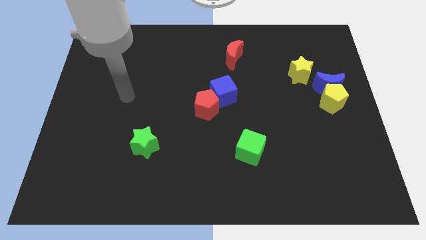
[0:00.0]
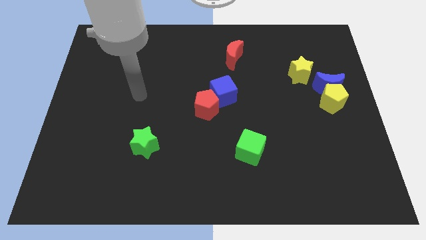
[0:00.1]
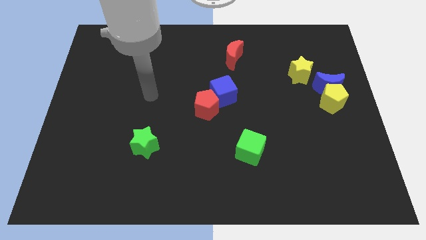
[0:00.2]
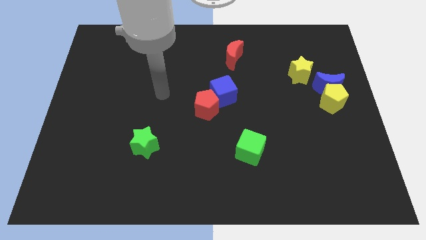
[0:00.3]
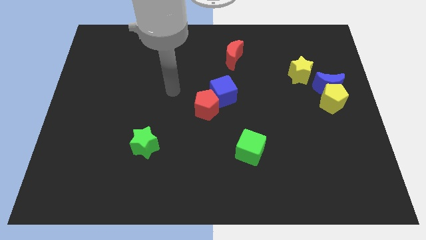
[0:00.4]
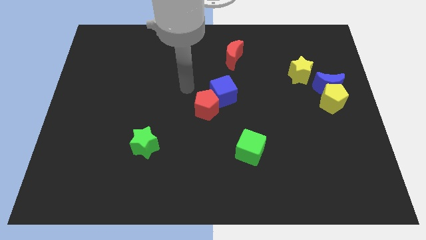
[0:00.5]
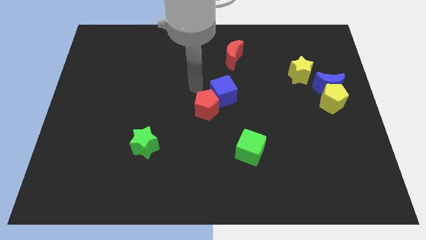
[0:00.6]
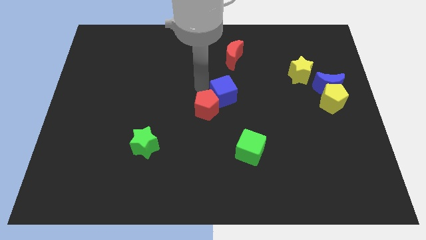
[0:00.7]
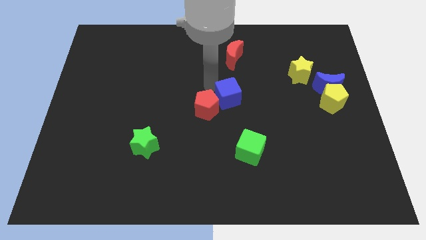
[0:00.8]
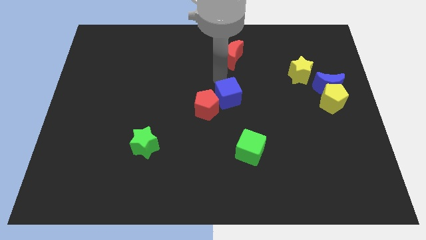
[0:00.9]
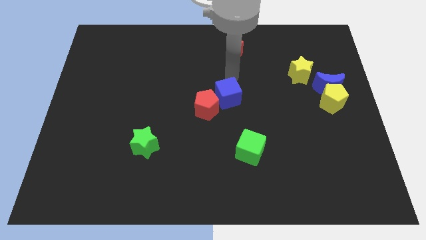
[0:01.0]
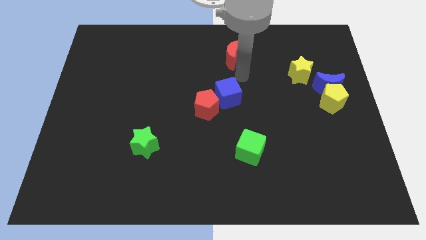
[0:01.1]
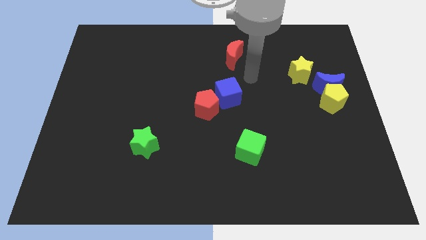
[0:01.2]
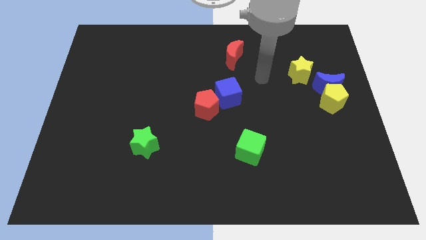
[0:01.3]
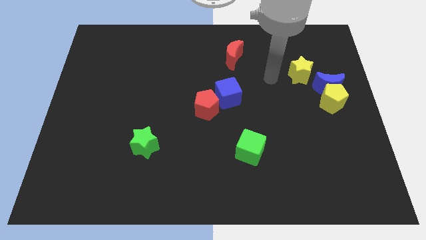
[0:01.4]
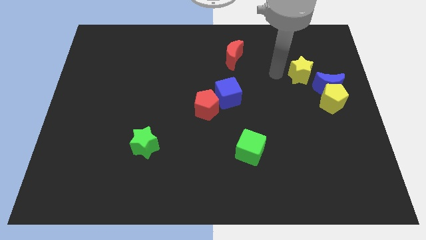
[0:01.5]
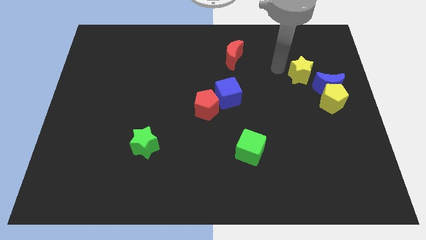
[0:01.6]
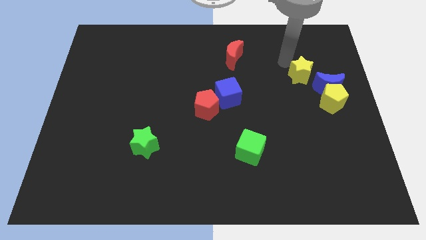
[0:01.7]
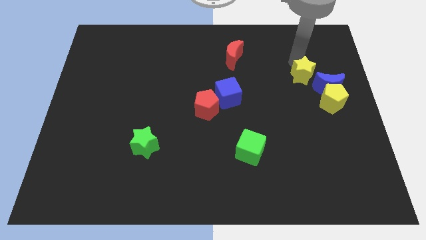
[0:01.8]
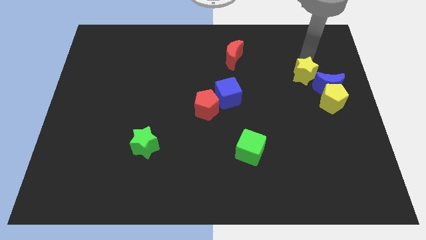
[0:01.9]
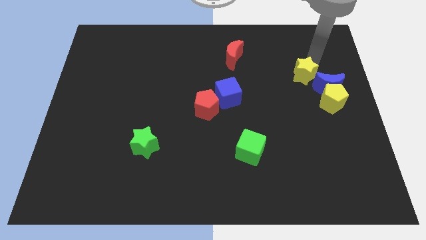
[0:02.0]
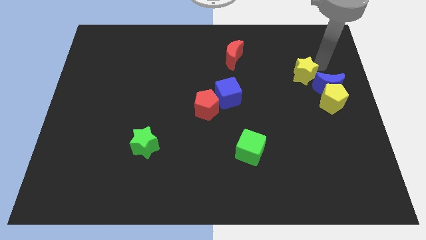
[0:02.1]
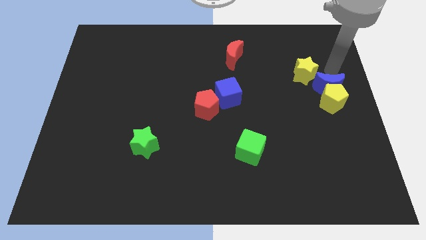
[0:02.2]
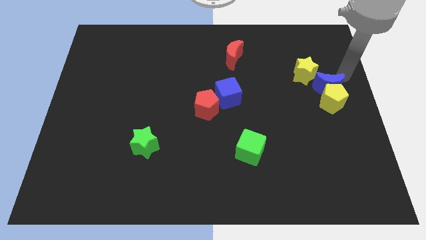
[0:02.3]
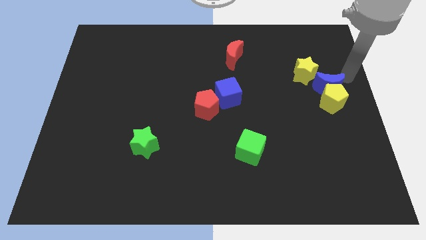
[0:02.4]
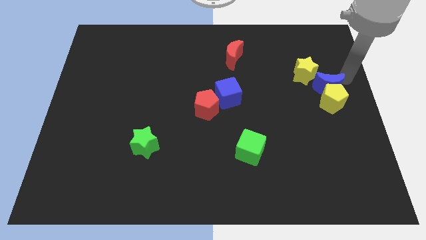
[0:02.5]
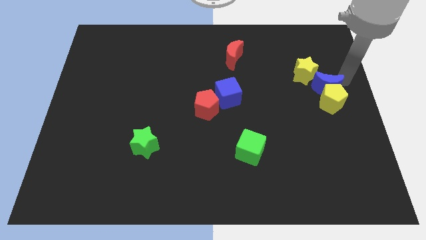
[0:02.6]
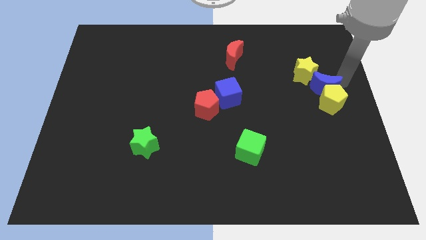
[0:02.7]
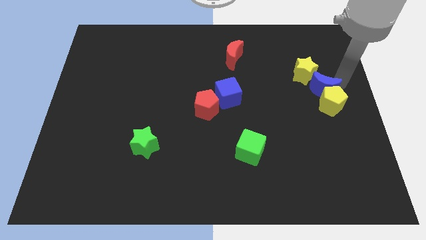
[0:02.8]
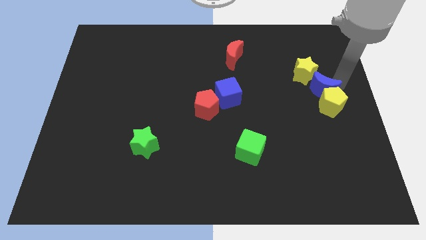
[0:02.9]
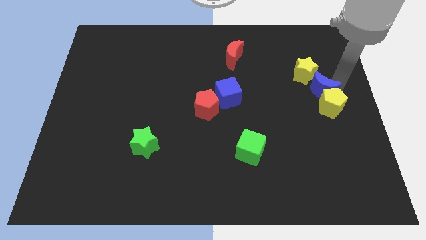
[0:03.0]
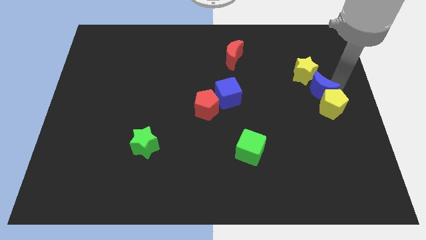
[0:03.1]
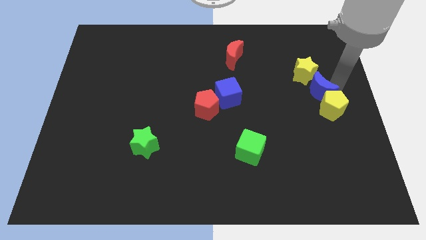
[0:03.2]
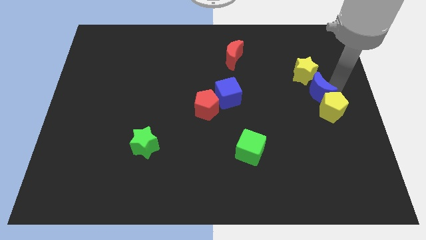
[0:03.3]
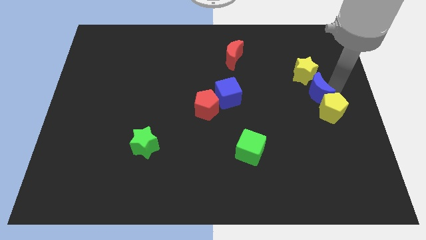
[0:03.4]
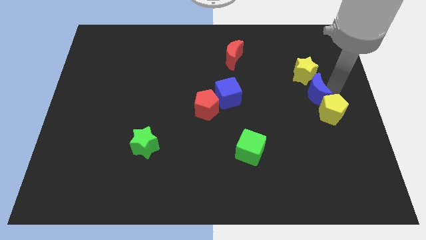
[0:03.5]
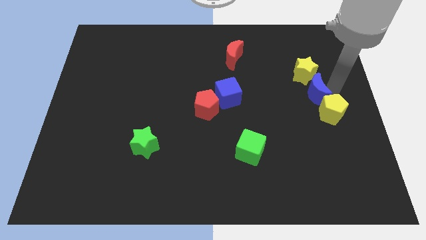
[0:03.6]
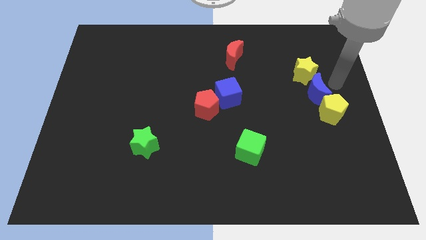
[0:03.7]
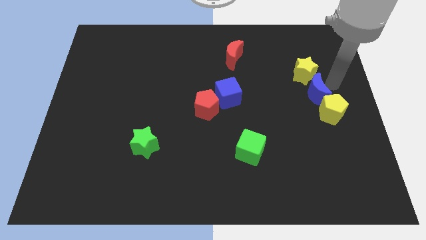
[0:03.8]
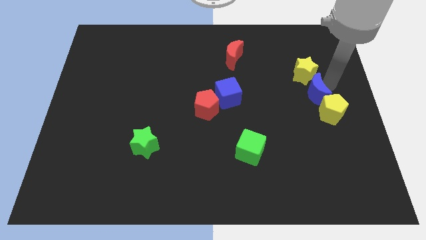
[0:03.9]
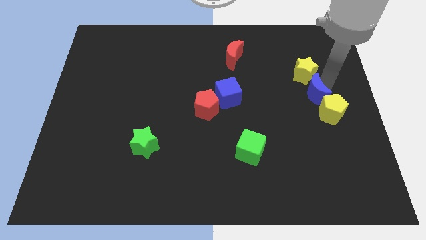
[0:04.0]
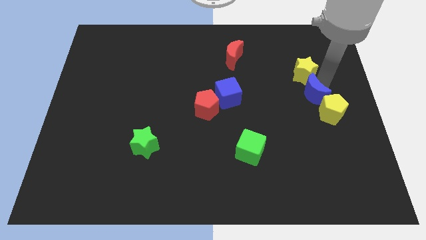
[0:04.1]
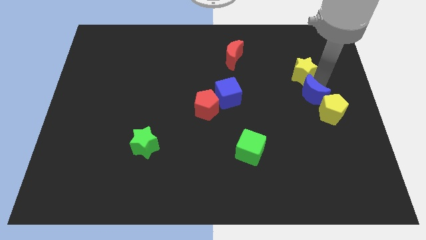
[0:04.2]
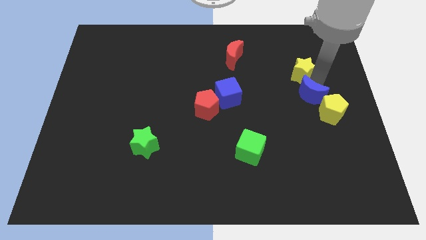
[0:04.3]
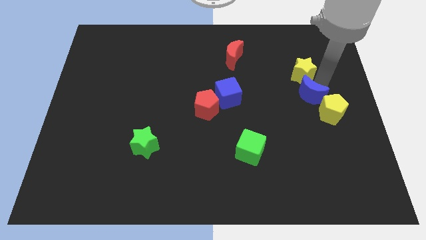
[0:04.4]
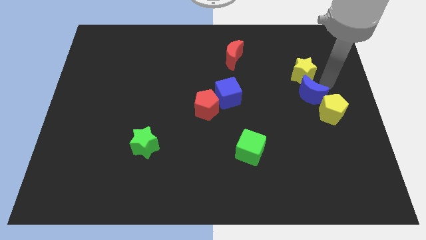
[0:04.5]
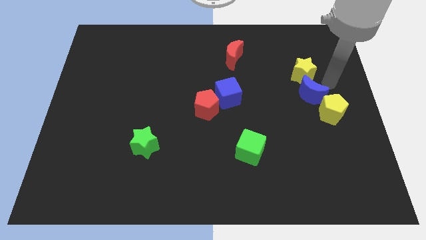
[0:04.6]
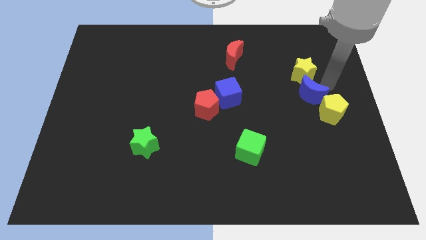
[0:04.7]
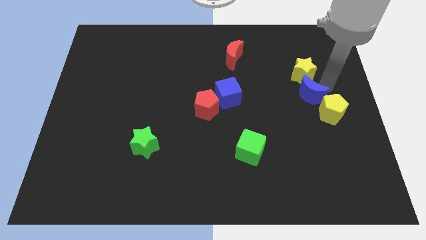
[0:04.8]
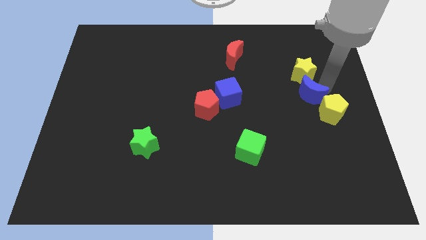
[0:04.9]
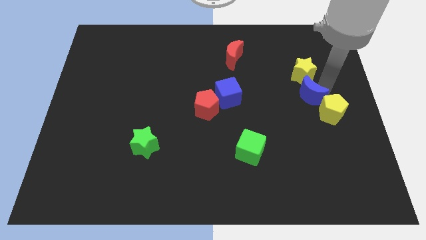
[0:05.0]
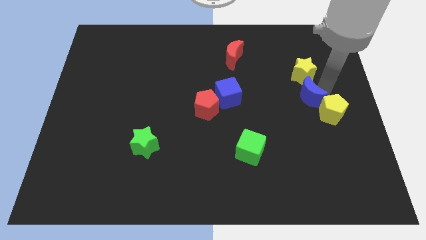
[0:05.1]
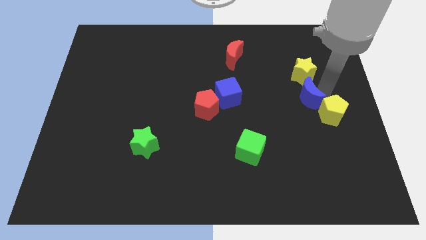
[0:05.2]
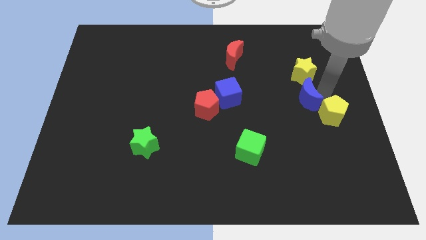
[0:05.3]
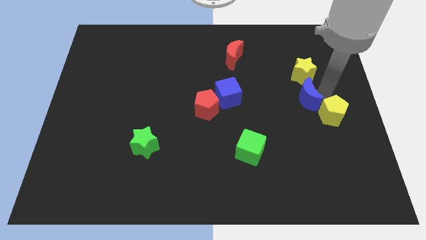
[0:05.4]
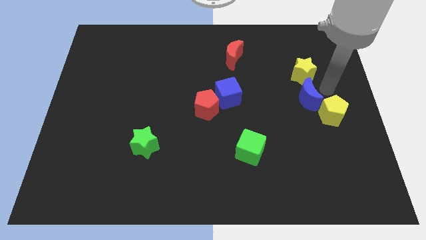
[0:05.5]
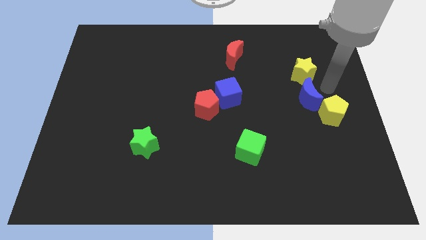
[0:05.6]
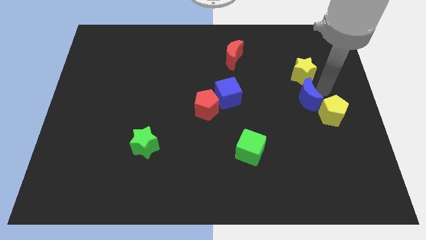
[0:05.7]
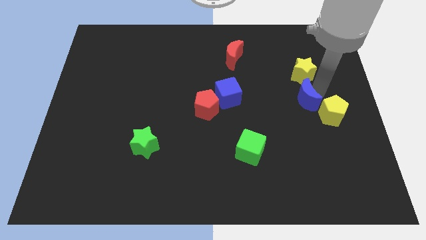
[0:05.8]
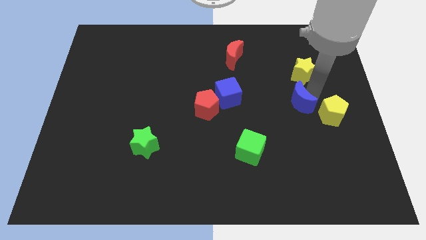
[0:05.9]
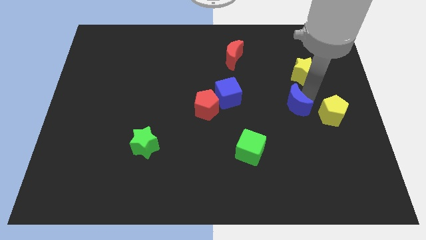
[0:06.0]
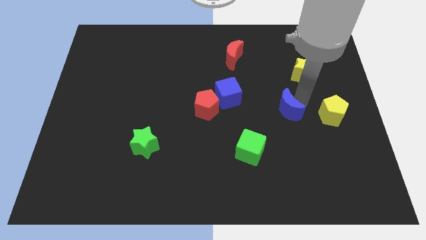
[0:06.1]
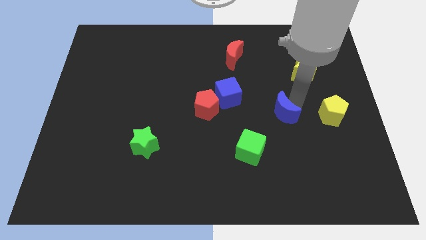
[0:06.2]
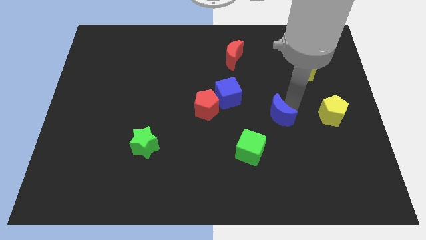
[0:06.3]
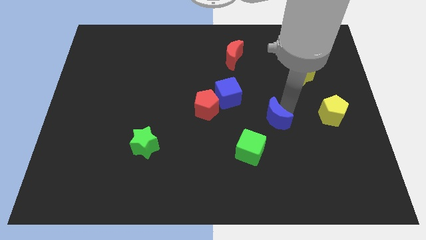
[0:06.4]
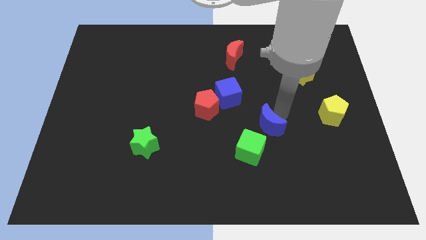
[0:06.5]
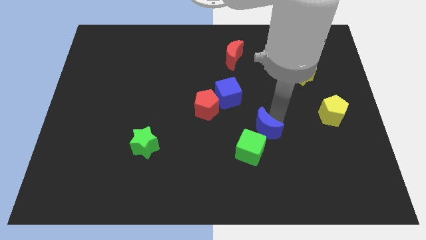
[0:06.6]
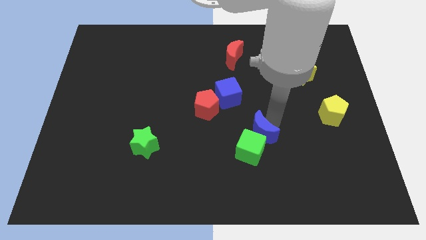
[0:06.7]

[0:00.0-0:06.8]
push the blue moon next to the green cube

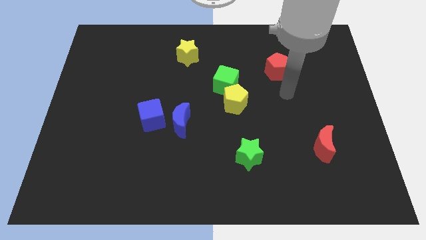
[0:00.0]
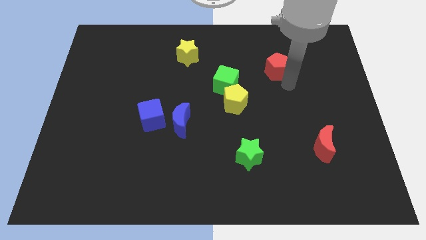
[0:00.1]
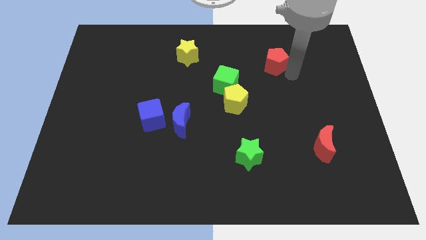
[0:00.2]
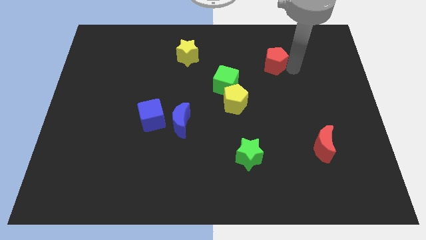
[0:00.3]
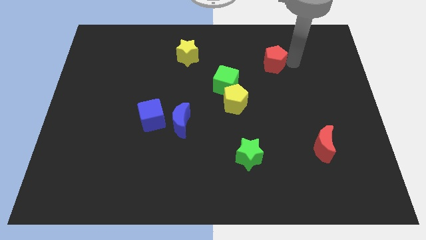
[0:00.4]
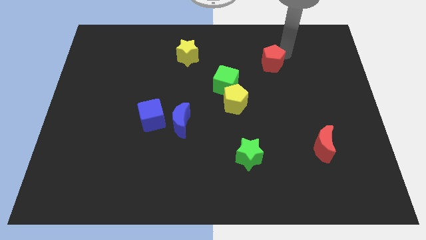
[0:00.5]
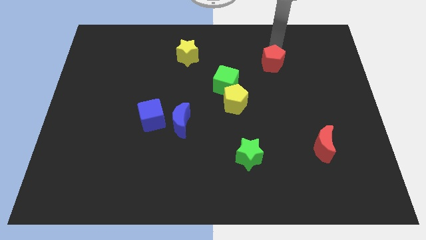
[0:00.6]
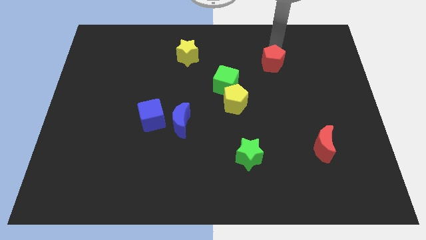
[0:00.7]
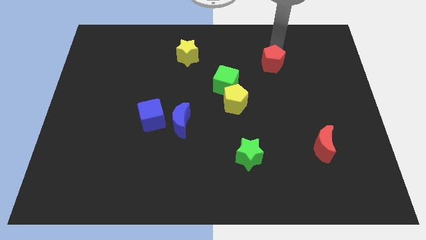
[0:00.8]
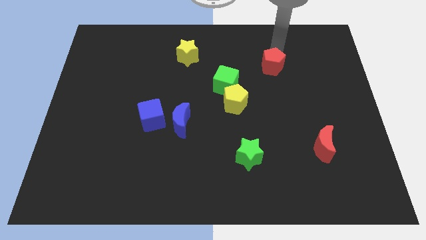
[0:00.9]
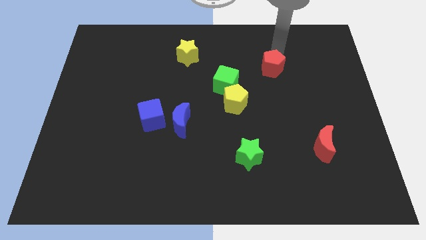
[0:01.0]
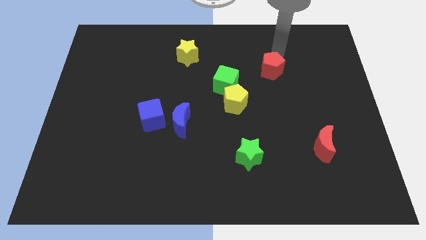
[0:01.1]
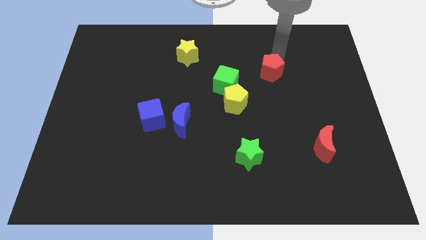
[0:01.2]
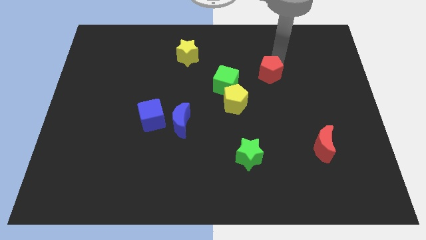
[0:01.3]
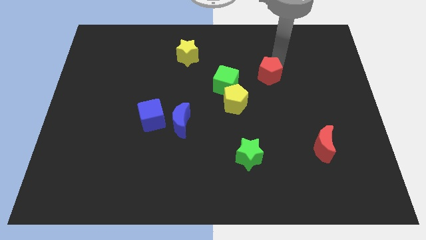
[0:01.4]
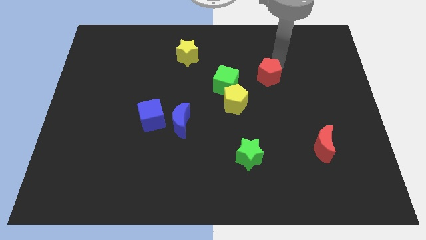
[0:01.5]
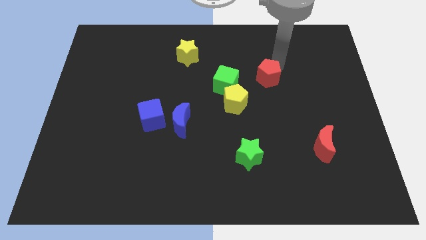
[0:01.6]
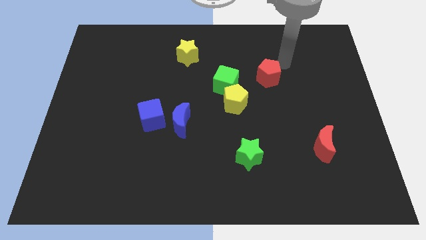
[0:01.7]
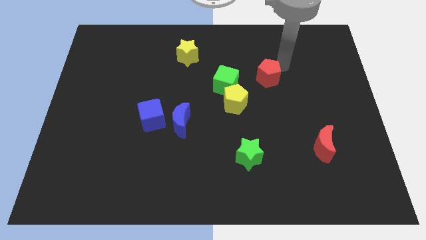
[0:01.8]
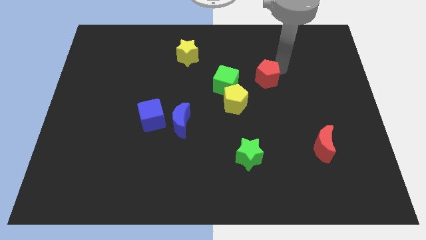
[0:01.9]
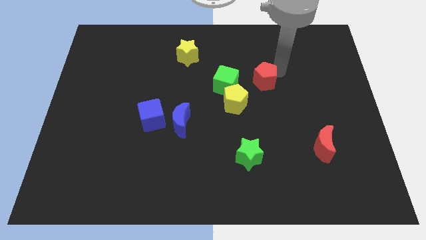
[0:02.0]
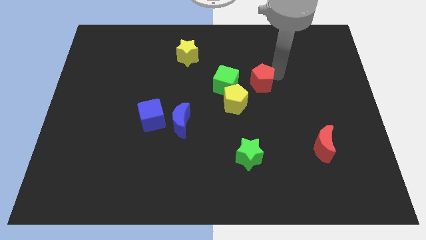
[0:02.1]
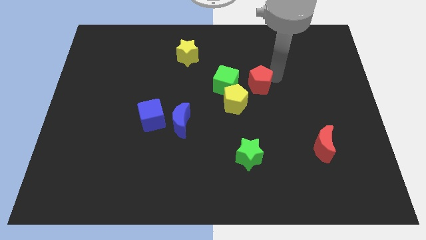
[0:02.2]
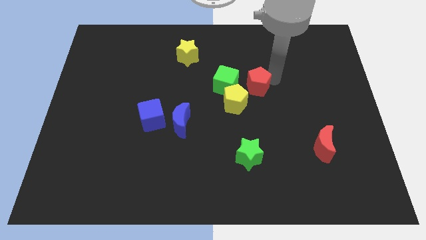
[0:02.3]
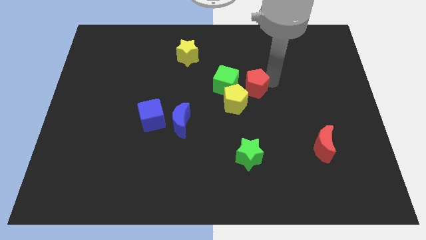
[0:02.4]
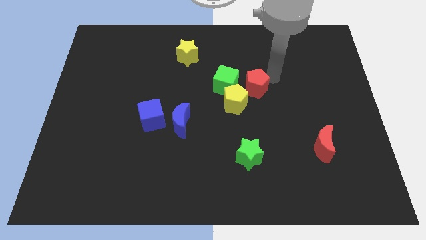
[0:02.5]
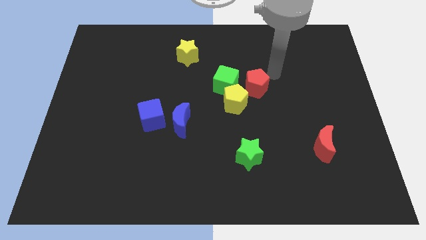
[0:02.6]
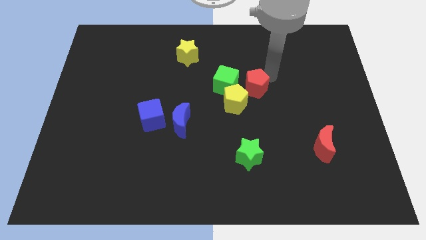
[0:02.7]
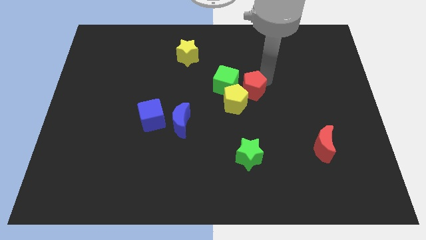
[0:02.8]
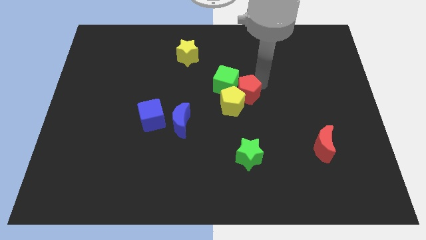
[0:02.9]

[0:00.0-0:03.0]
move the red pentagon to the yellow pentagon
